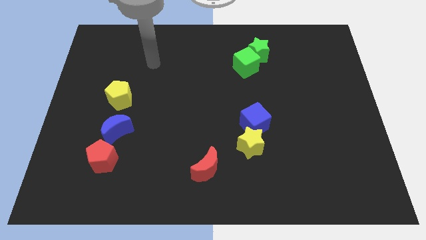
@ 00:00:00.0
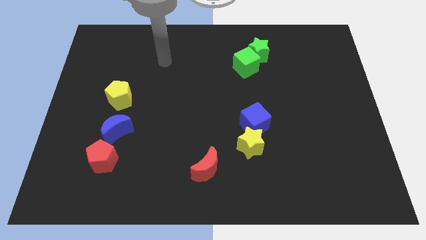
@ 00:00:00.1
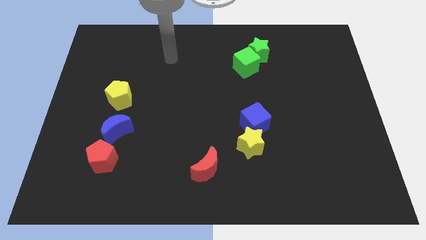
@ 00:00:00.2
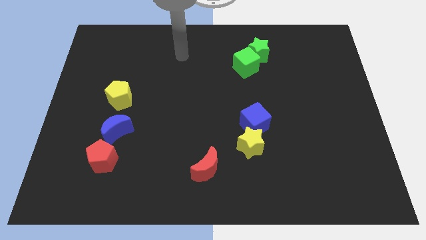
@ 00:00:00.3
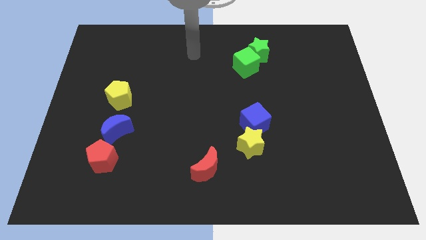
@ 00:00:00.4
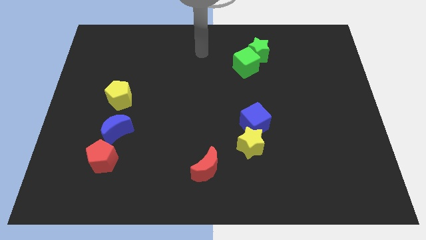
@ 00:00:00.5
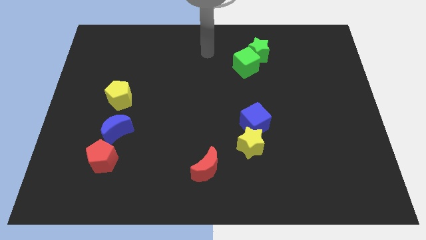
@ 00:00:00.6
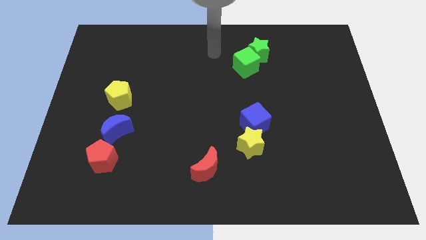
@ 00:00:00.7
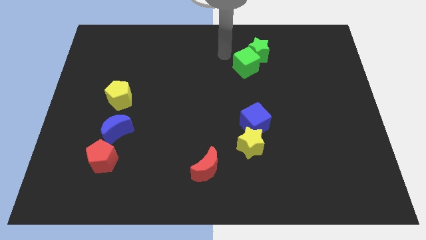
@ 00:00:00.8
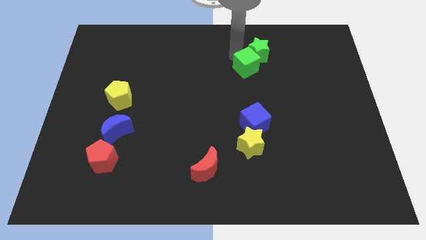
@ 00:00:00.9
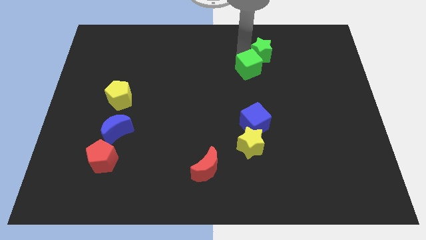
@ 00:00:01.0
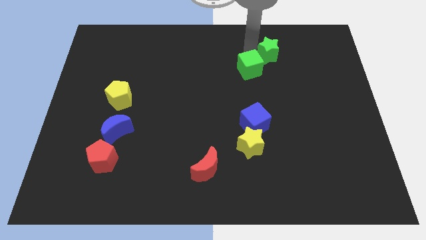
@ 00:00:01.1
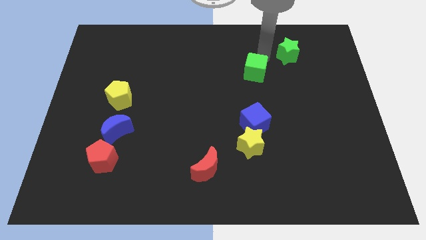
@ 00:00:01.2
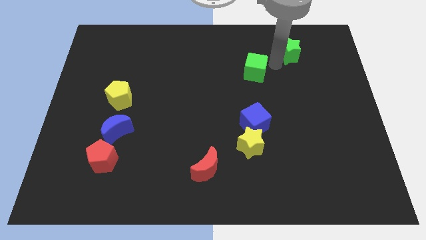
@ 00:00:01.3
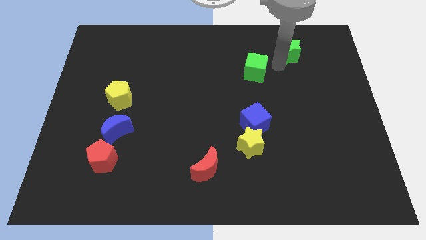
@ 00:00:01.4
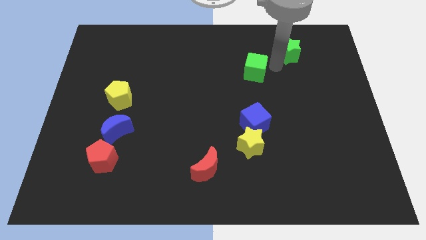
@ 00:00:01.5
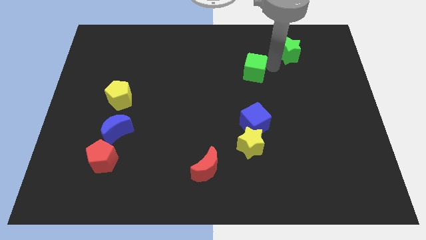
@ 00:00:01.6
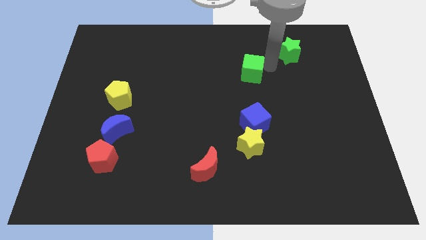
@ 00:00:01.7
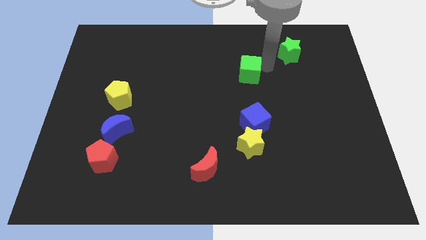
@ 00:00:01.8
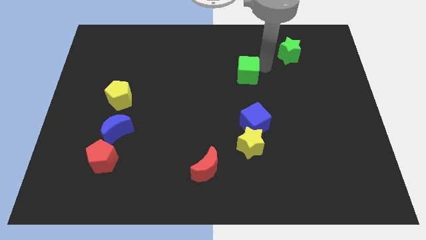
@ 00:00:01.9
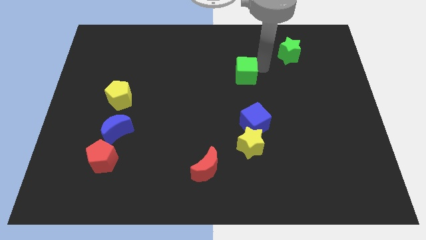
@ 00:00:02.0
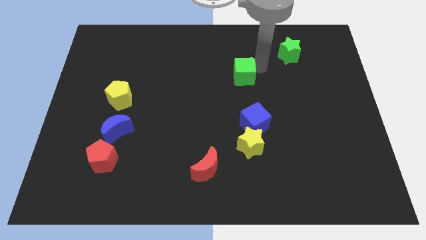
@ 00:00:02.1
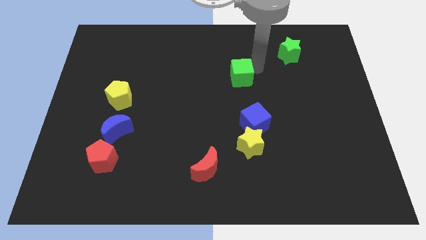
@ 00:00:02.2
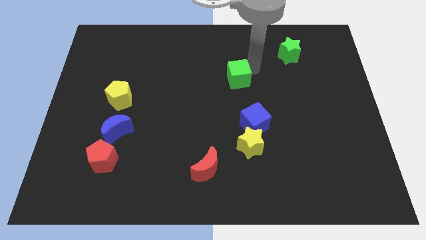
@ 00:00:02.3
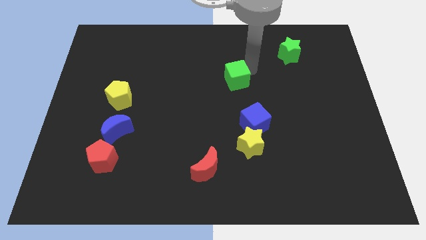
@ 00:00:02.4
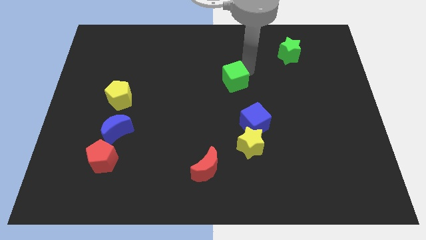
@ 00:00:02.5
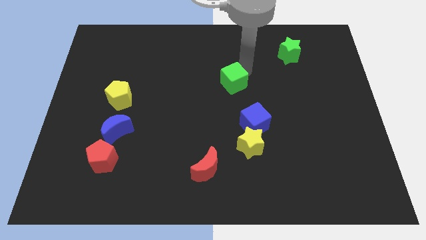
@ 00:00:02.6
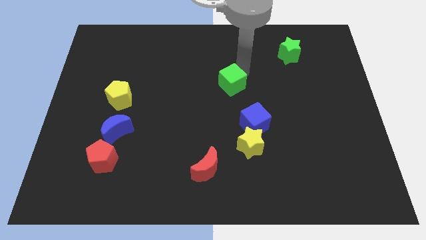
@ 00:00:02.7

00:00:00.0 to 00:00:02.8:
move the green cube down and left diagonally somewhat

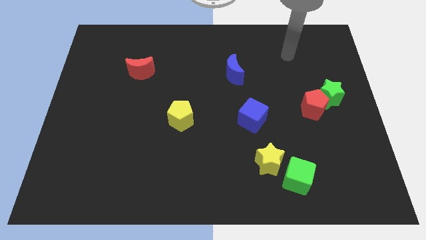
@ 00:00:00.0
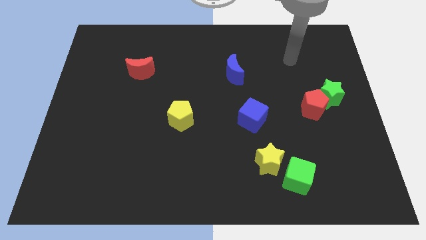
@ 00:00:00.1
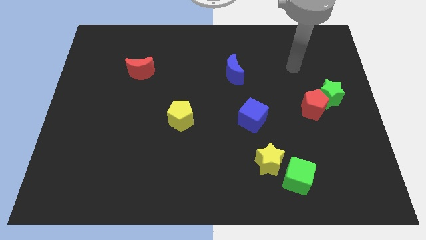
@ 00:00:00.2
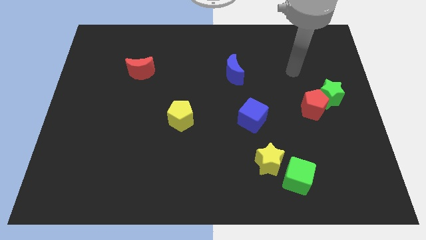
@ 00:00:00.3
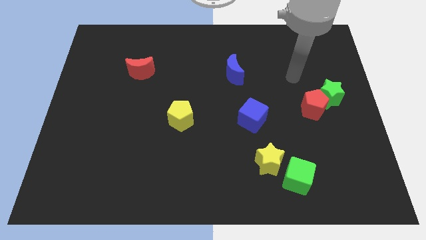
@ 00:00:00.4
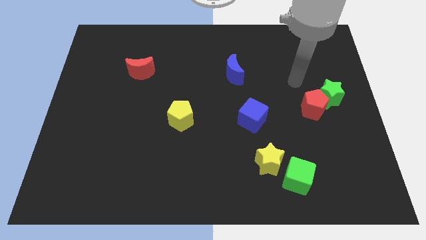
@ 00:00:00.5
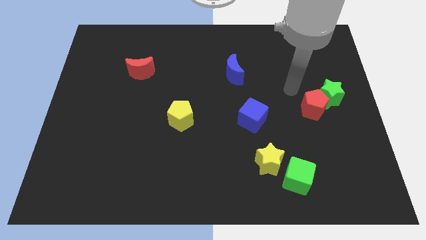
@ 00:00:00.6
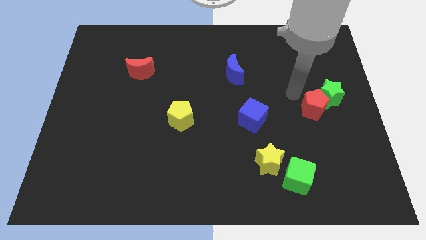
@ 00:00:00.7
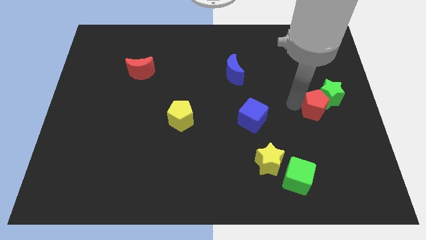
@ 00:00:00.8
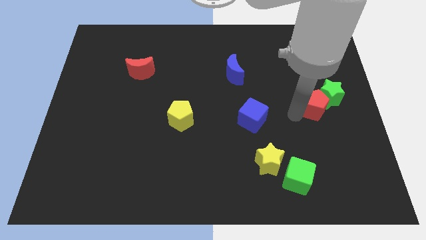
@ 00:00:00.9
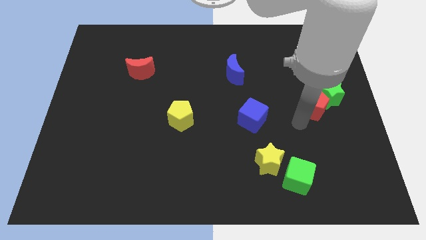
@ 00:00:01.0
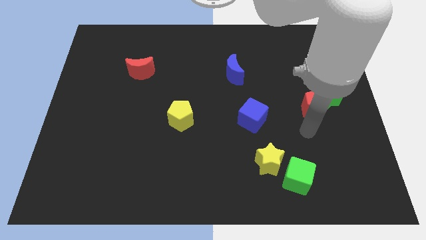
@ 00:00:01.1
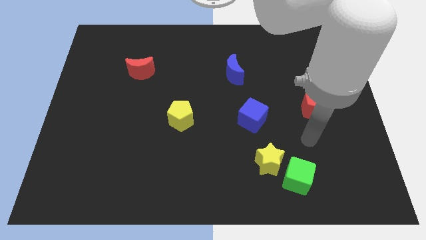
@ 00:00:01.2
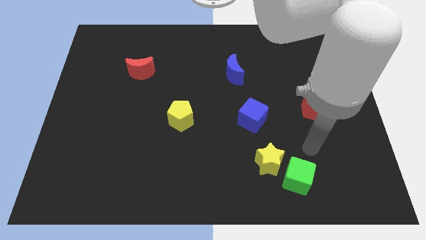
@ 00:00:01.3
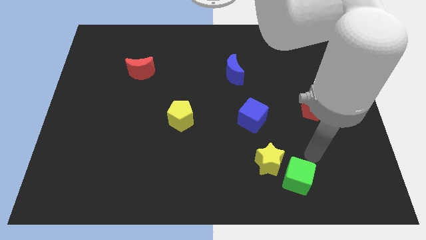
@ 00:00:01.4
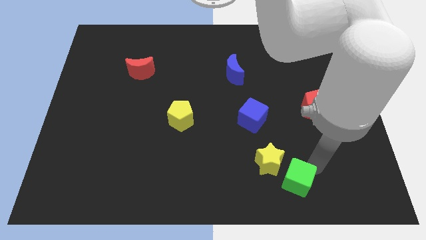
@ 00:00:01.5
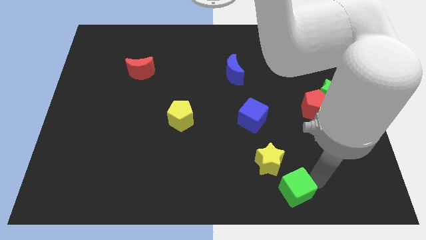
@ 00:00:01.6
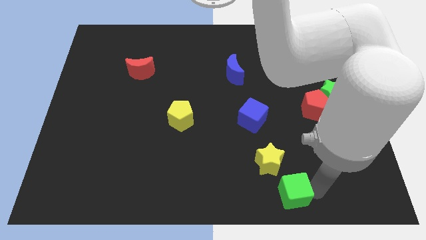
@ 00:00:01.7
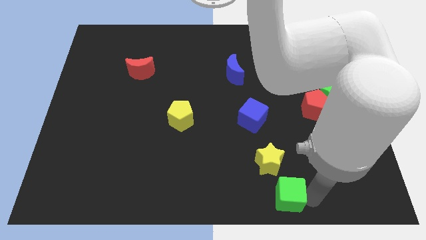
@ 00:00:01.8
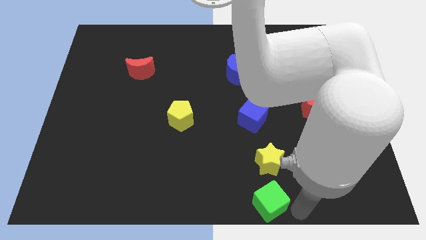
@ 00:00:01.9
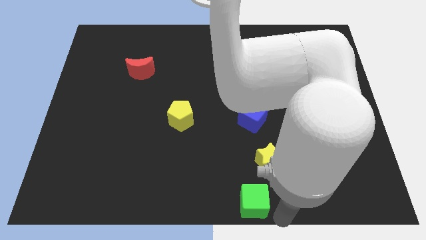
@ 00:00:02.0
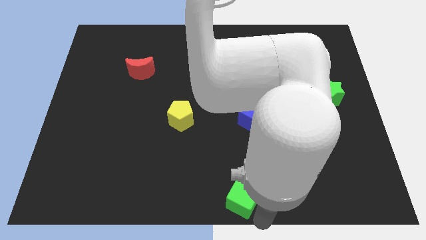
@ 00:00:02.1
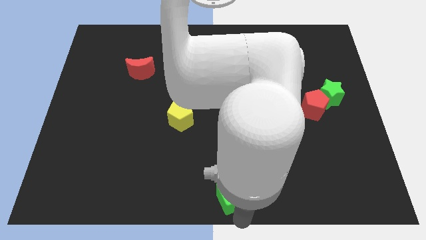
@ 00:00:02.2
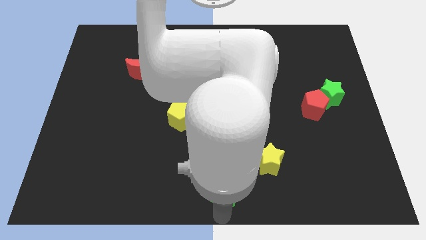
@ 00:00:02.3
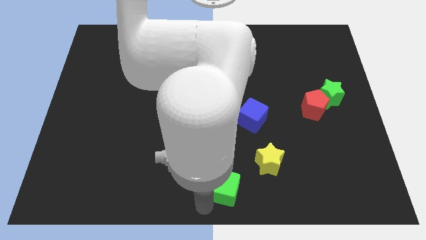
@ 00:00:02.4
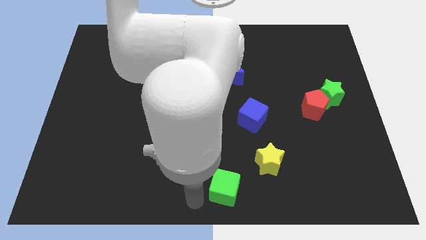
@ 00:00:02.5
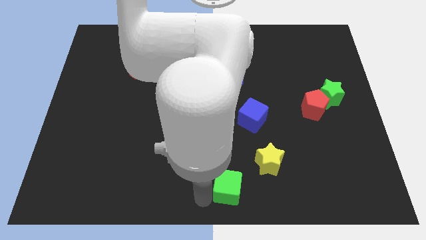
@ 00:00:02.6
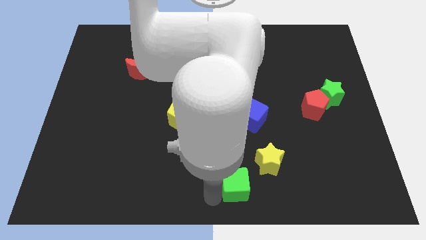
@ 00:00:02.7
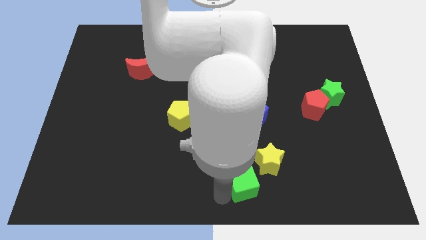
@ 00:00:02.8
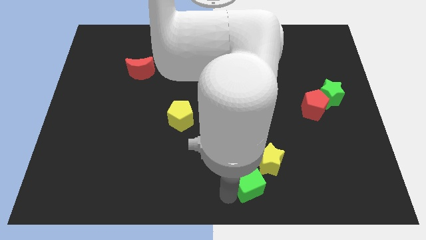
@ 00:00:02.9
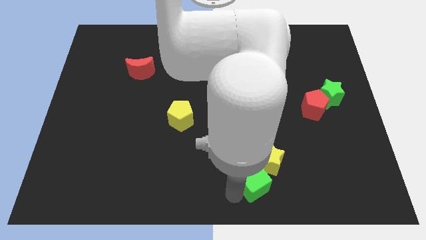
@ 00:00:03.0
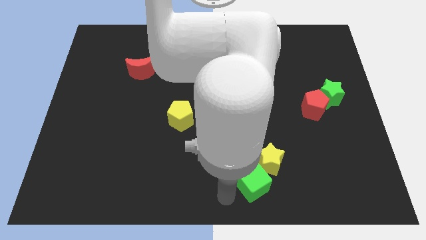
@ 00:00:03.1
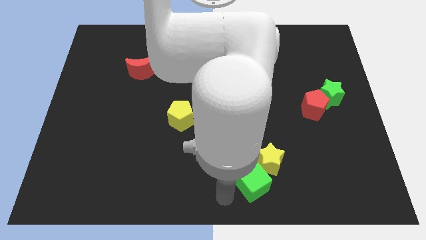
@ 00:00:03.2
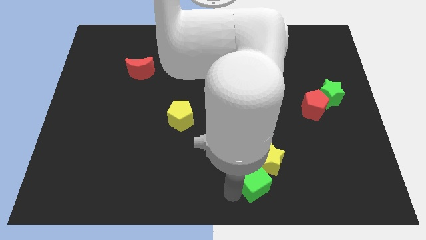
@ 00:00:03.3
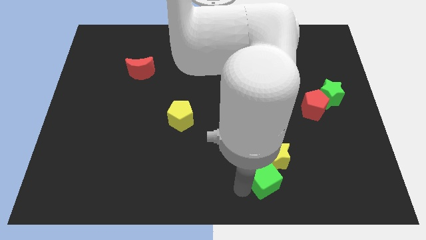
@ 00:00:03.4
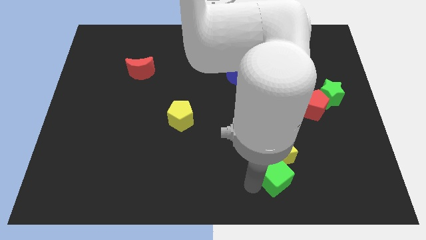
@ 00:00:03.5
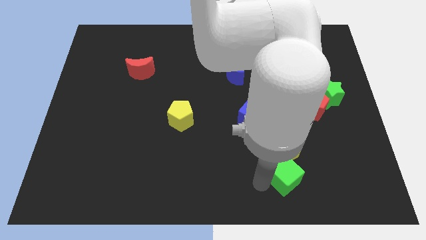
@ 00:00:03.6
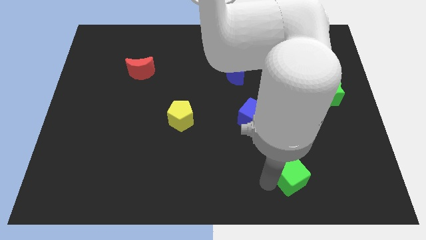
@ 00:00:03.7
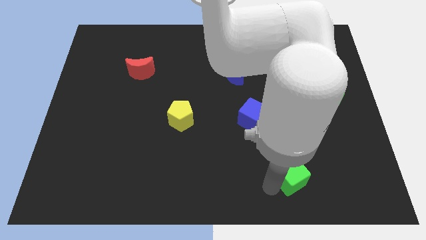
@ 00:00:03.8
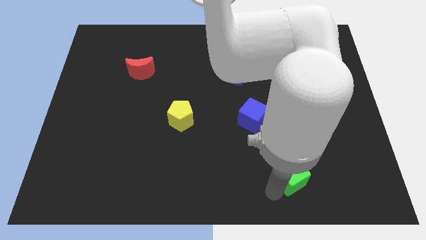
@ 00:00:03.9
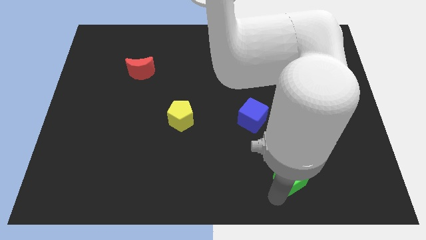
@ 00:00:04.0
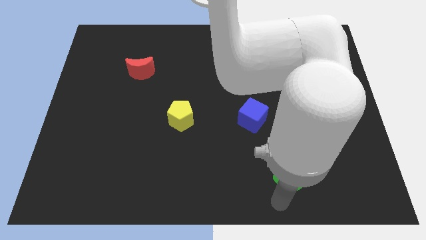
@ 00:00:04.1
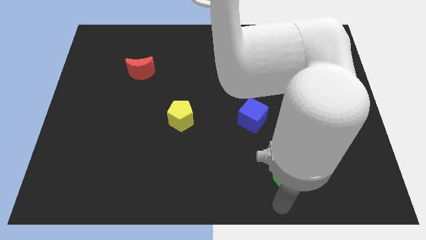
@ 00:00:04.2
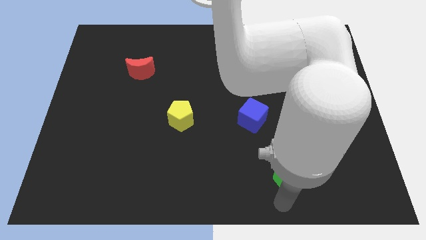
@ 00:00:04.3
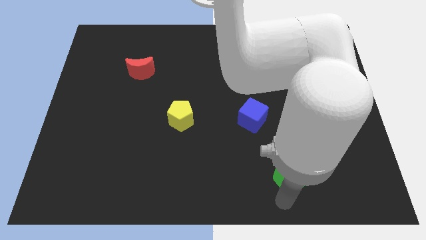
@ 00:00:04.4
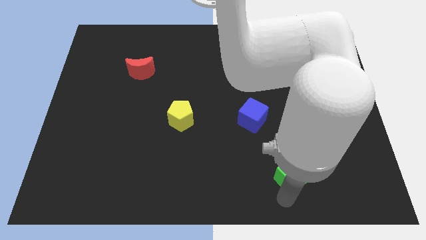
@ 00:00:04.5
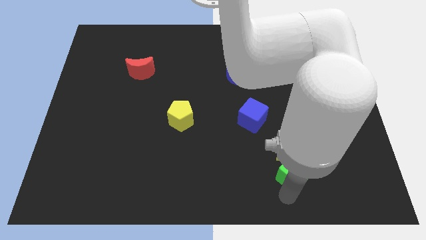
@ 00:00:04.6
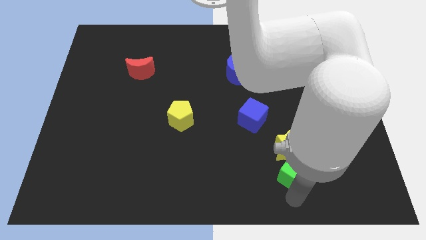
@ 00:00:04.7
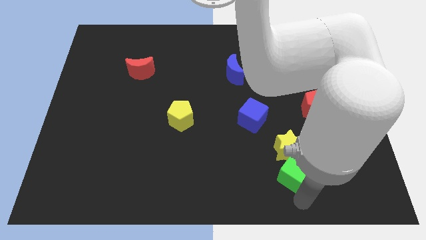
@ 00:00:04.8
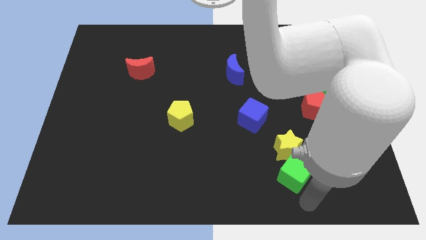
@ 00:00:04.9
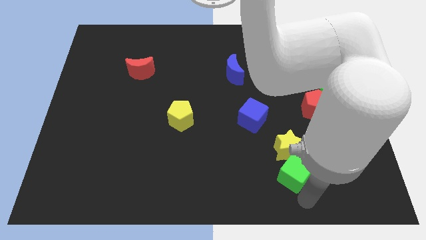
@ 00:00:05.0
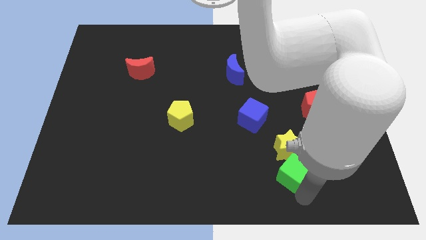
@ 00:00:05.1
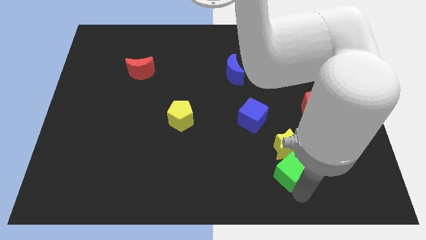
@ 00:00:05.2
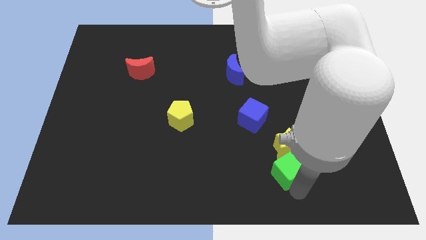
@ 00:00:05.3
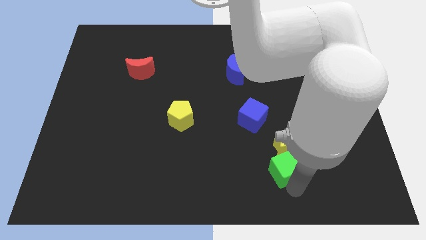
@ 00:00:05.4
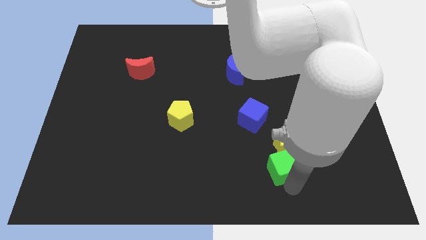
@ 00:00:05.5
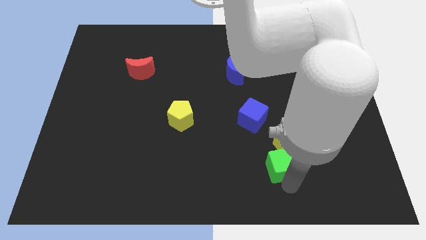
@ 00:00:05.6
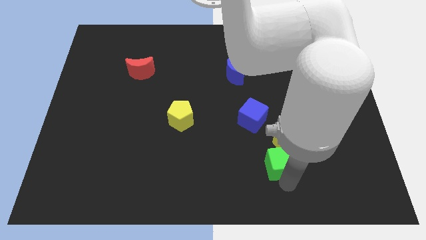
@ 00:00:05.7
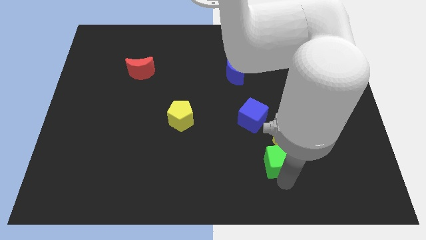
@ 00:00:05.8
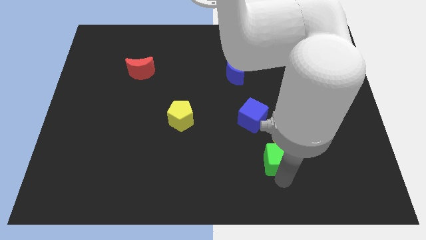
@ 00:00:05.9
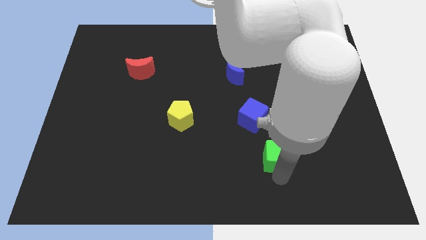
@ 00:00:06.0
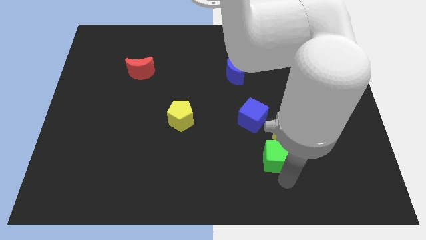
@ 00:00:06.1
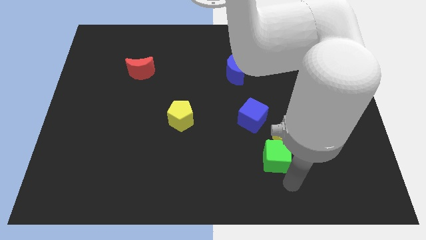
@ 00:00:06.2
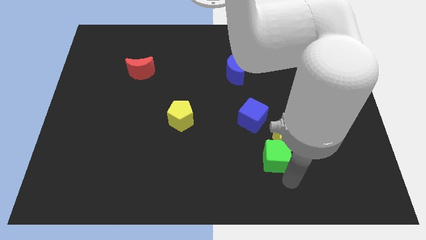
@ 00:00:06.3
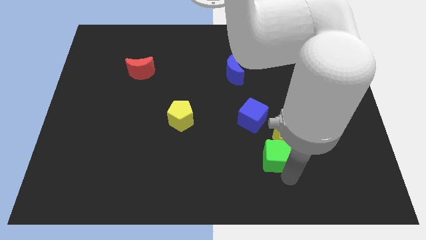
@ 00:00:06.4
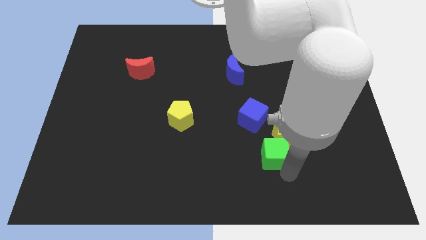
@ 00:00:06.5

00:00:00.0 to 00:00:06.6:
slide the green cube diagonally upwards and left a bit
